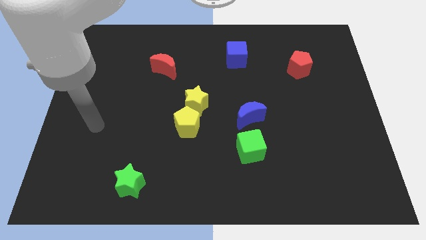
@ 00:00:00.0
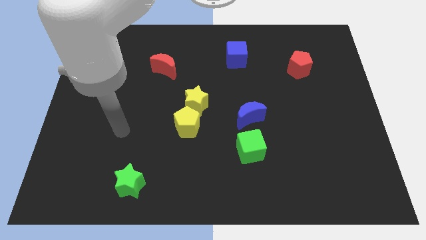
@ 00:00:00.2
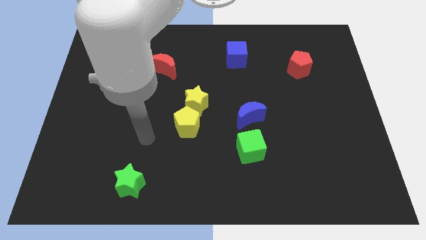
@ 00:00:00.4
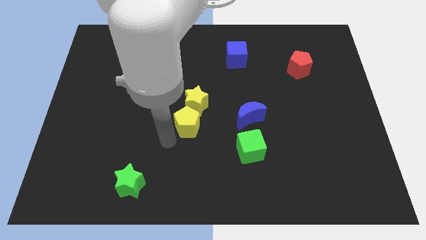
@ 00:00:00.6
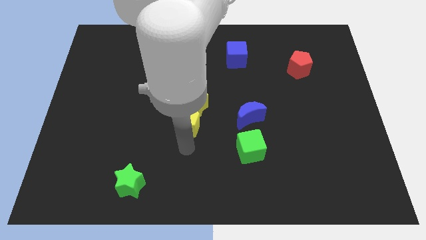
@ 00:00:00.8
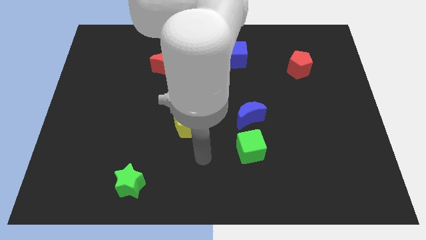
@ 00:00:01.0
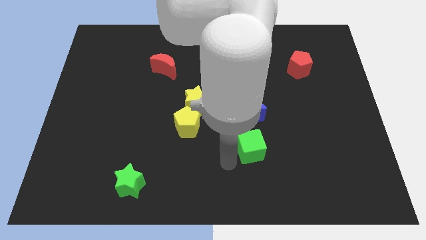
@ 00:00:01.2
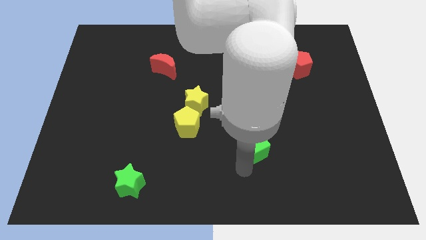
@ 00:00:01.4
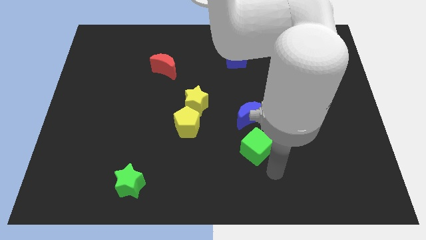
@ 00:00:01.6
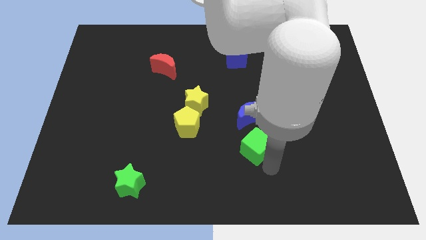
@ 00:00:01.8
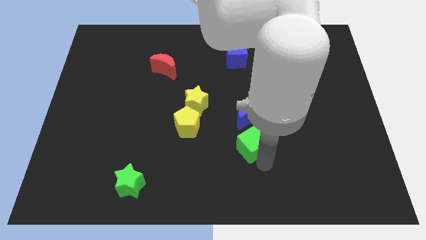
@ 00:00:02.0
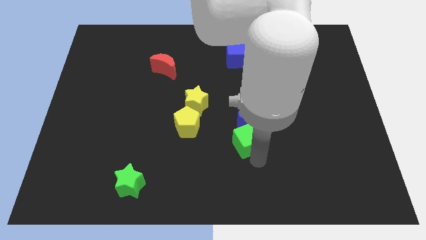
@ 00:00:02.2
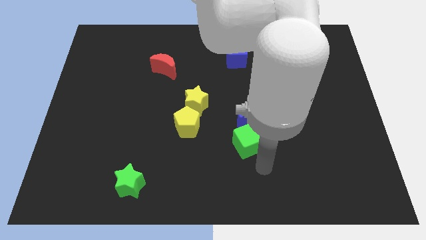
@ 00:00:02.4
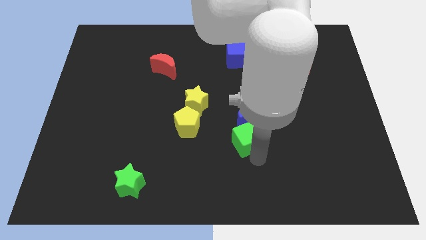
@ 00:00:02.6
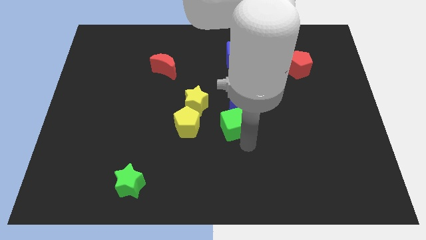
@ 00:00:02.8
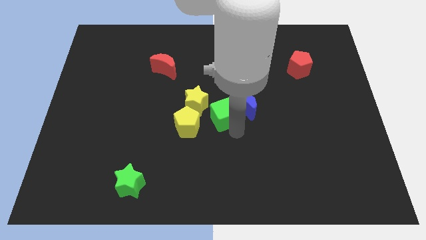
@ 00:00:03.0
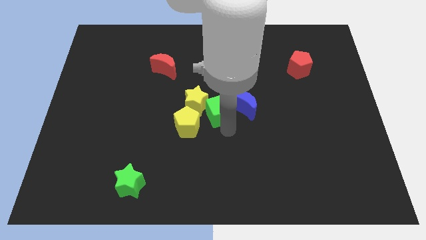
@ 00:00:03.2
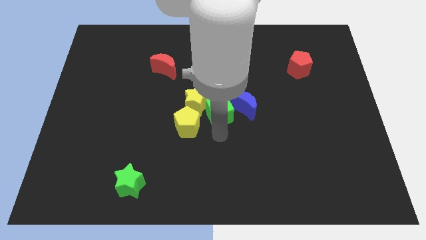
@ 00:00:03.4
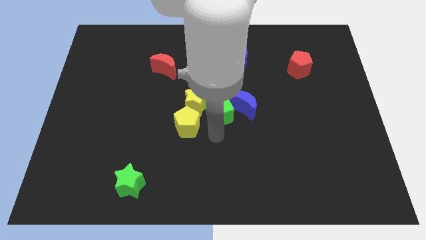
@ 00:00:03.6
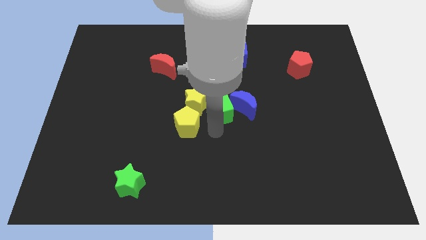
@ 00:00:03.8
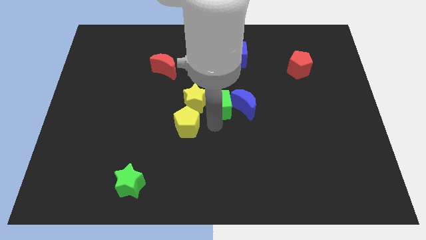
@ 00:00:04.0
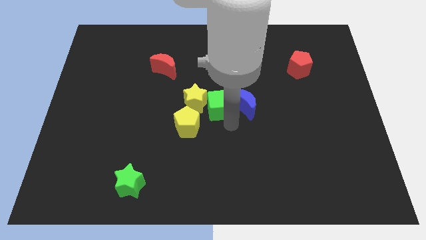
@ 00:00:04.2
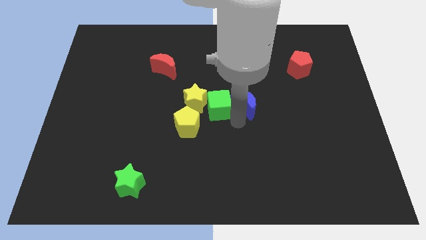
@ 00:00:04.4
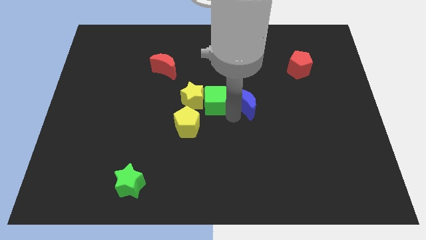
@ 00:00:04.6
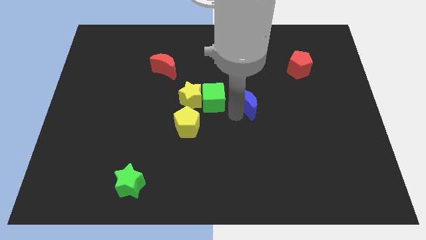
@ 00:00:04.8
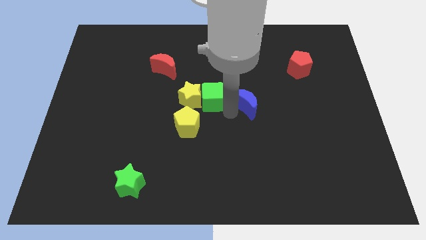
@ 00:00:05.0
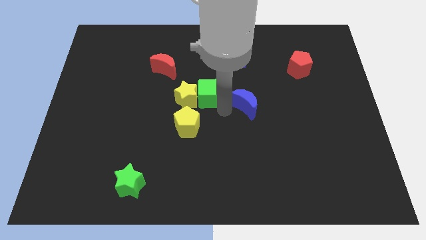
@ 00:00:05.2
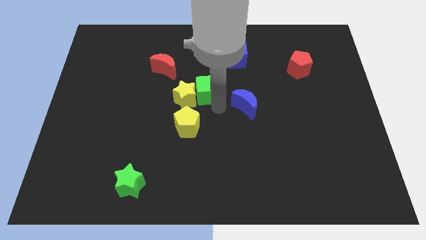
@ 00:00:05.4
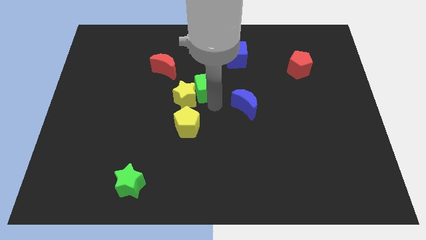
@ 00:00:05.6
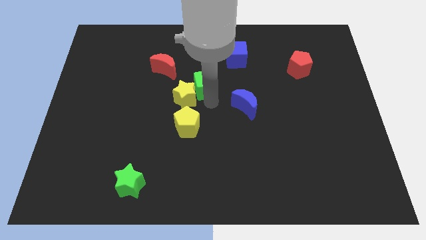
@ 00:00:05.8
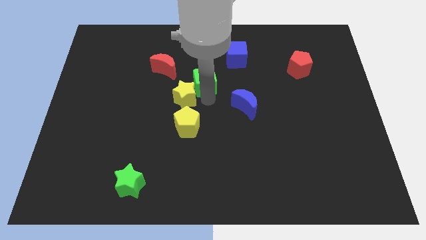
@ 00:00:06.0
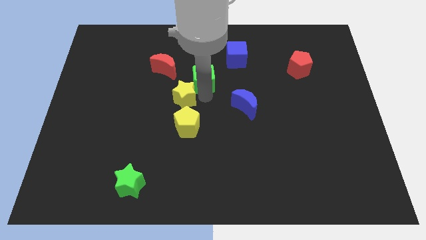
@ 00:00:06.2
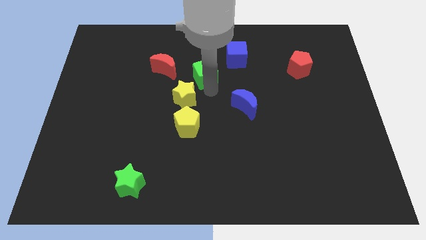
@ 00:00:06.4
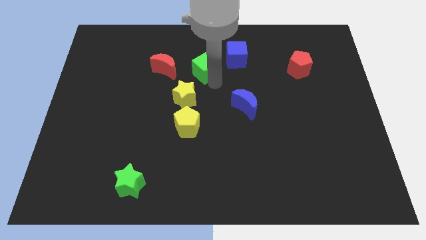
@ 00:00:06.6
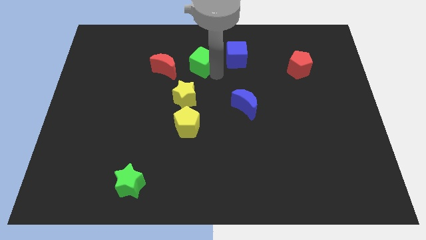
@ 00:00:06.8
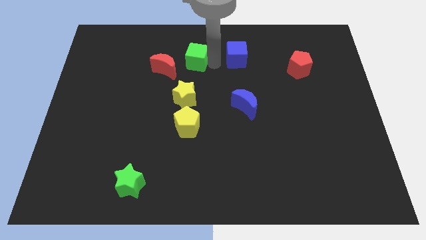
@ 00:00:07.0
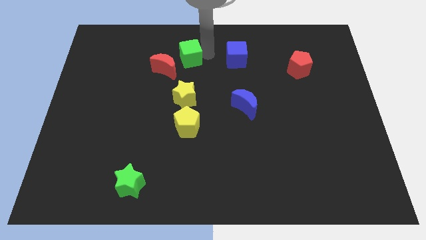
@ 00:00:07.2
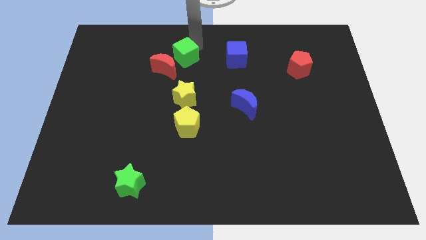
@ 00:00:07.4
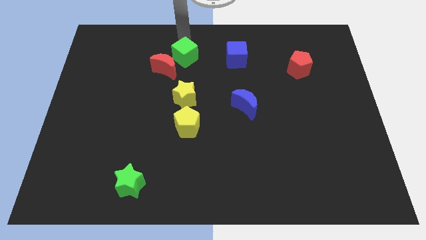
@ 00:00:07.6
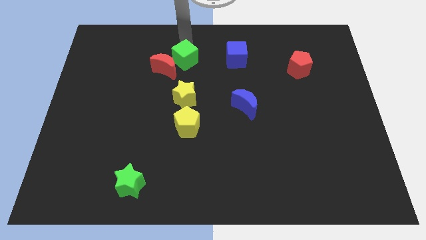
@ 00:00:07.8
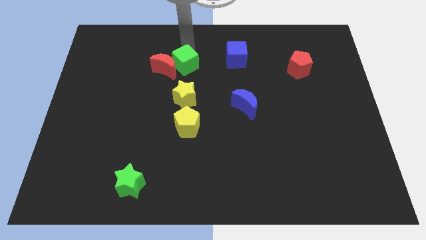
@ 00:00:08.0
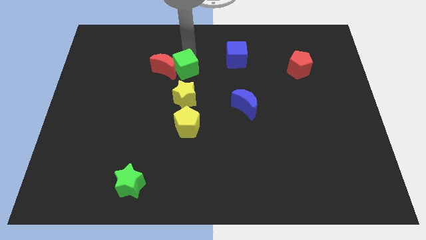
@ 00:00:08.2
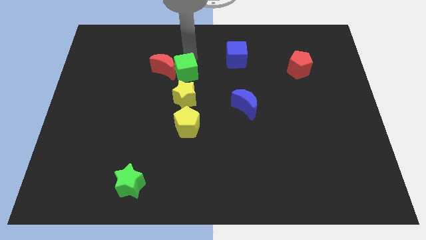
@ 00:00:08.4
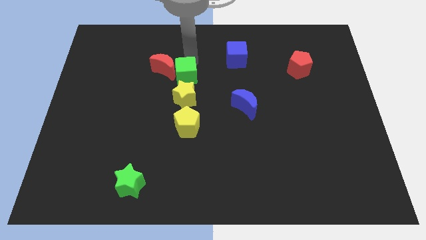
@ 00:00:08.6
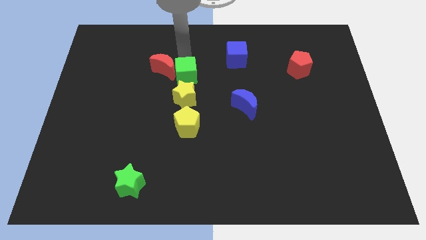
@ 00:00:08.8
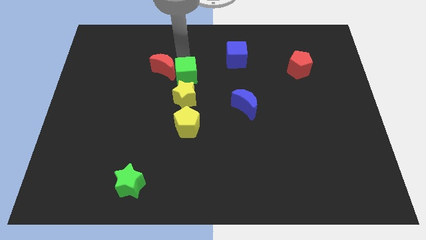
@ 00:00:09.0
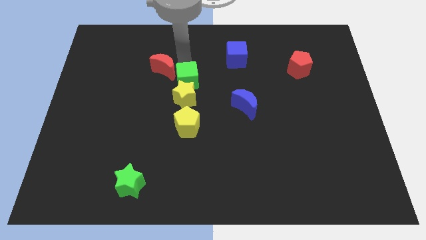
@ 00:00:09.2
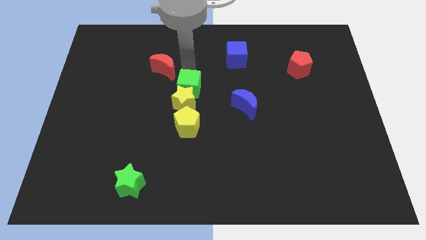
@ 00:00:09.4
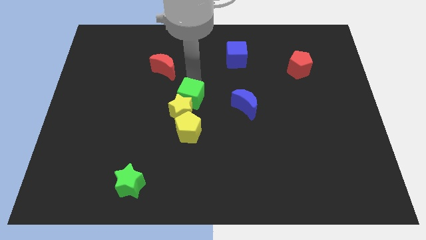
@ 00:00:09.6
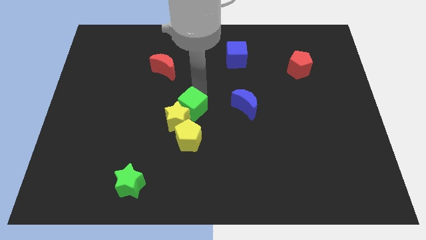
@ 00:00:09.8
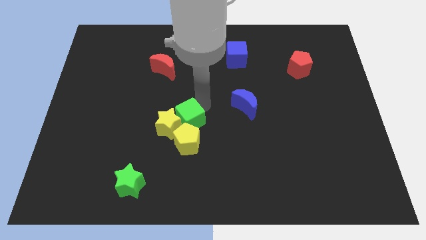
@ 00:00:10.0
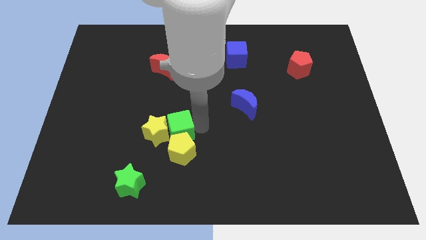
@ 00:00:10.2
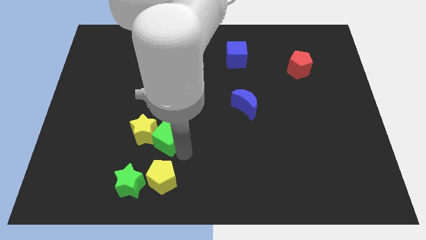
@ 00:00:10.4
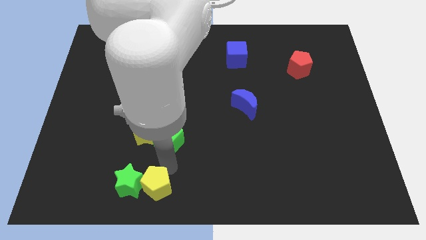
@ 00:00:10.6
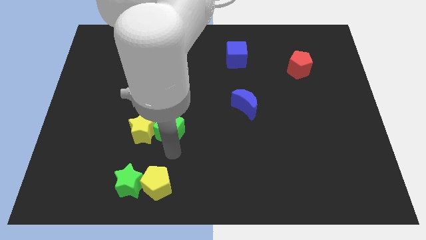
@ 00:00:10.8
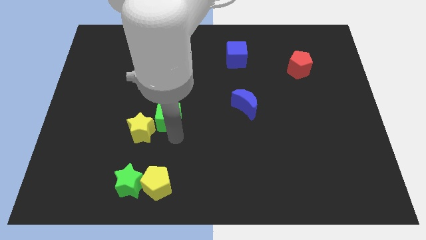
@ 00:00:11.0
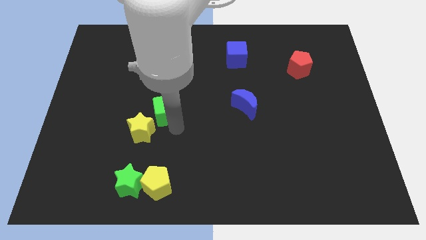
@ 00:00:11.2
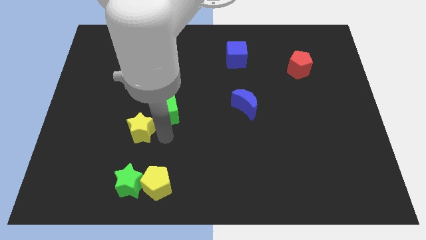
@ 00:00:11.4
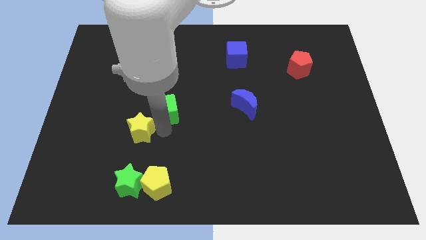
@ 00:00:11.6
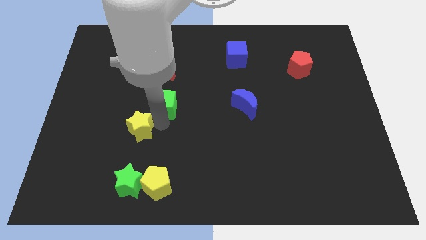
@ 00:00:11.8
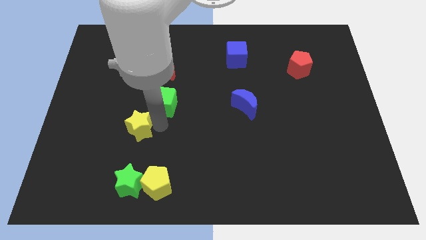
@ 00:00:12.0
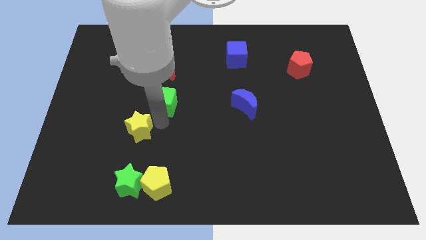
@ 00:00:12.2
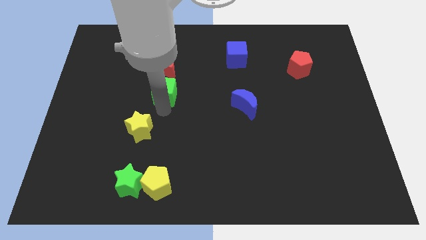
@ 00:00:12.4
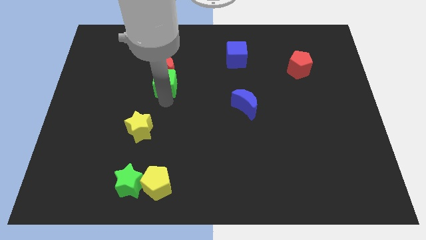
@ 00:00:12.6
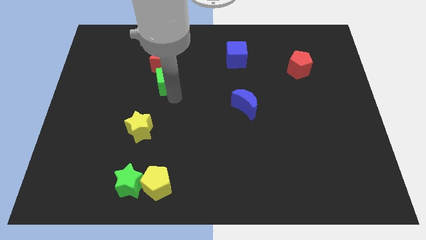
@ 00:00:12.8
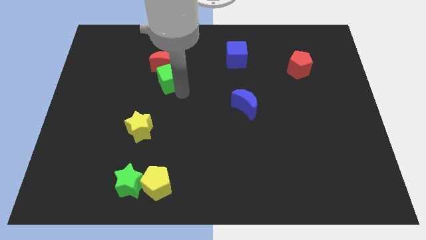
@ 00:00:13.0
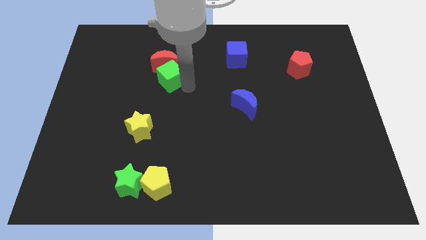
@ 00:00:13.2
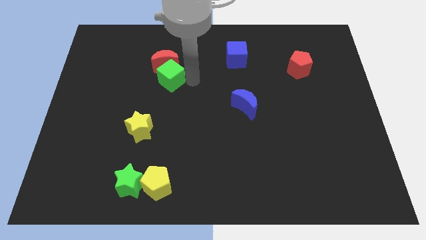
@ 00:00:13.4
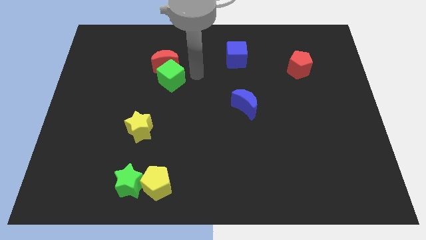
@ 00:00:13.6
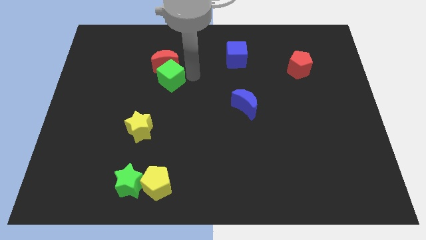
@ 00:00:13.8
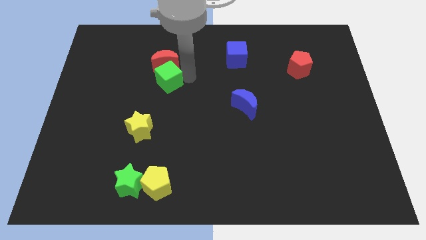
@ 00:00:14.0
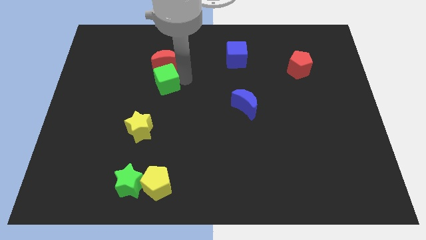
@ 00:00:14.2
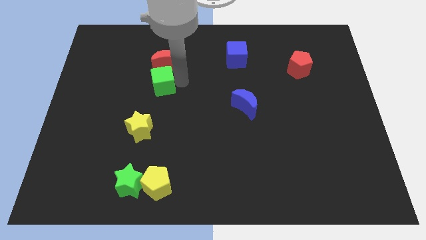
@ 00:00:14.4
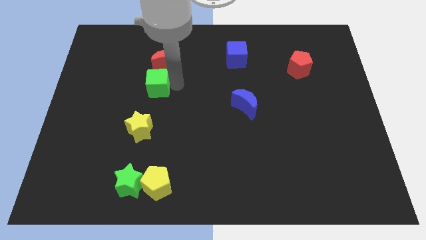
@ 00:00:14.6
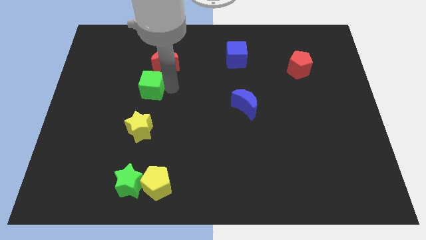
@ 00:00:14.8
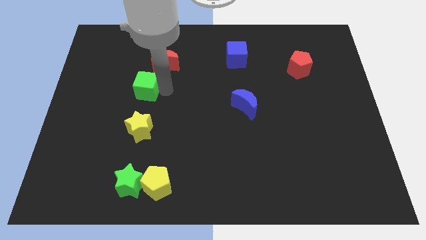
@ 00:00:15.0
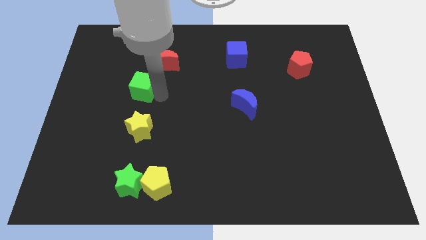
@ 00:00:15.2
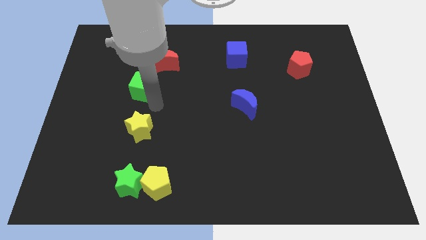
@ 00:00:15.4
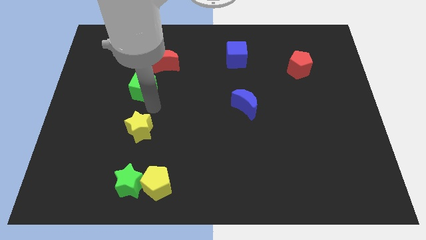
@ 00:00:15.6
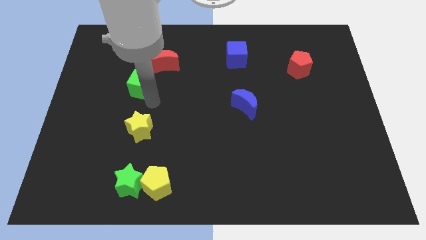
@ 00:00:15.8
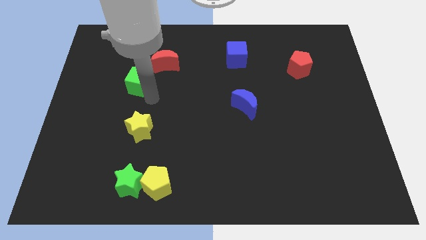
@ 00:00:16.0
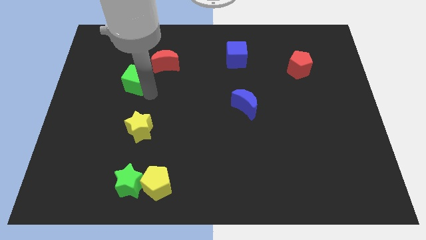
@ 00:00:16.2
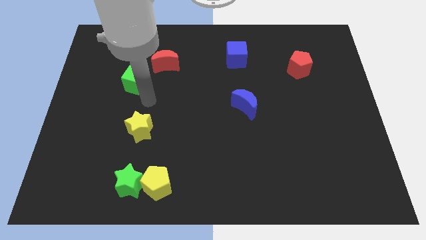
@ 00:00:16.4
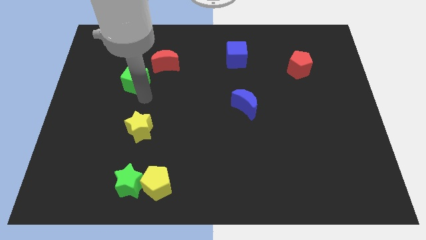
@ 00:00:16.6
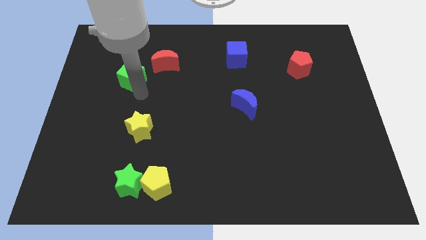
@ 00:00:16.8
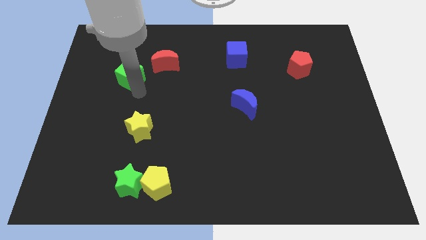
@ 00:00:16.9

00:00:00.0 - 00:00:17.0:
push the green cube left of the red moon
